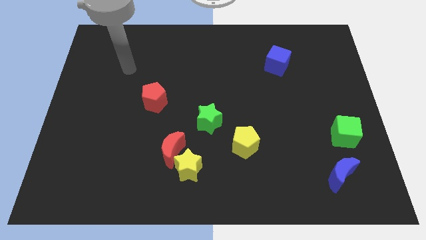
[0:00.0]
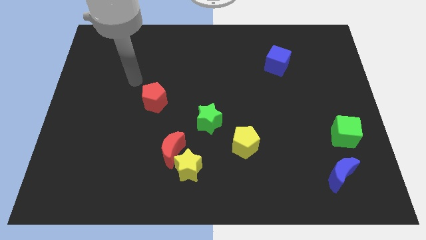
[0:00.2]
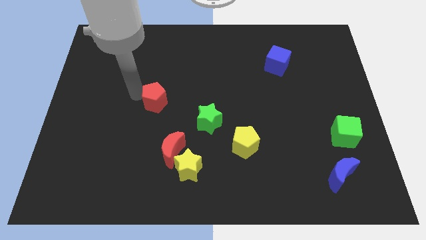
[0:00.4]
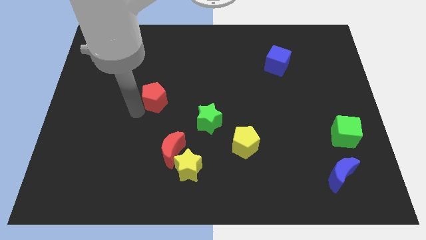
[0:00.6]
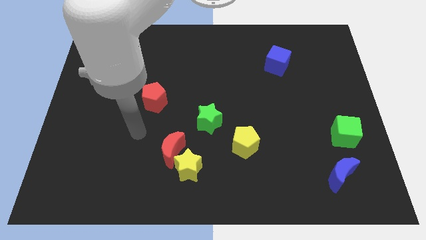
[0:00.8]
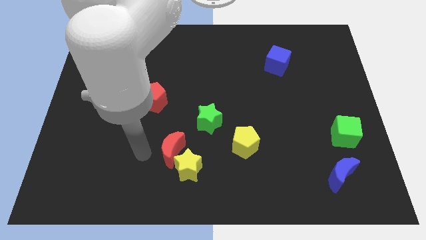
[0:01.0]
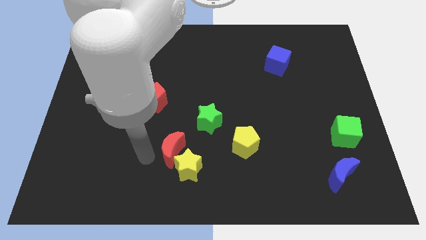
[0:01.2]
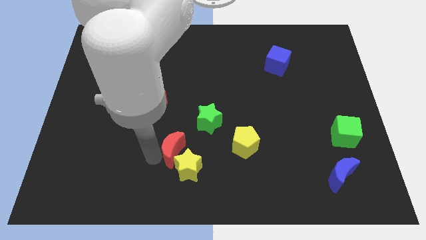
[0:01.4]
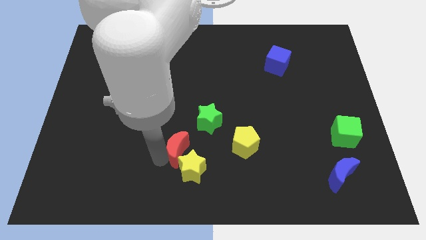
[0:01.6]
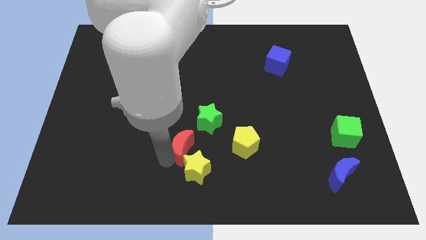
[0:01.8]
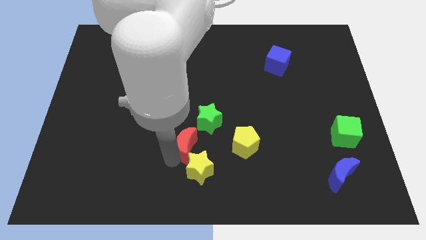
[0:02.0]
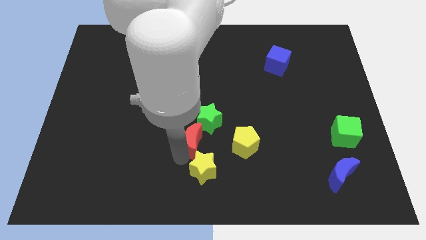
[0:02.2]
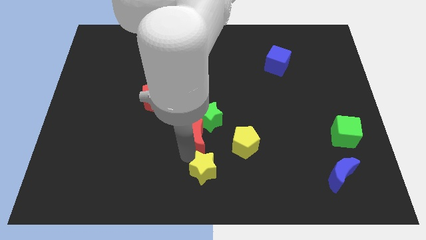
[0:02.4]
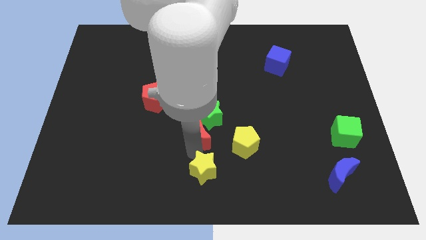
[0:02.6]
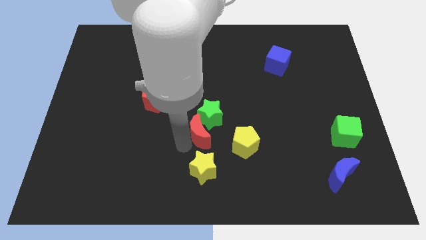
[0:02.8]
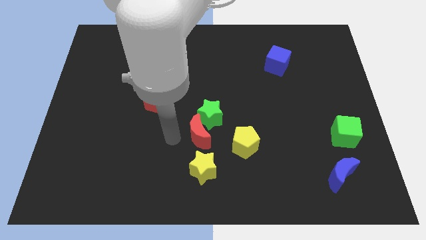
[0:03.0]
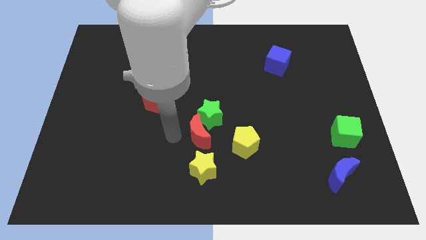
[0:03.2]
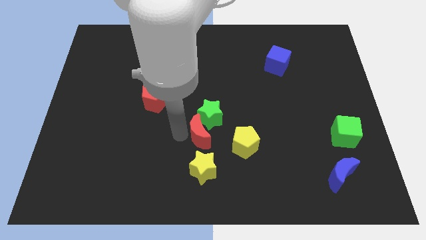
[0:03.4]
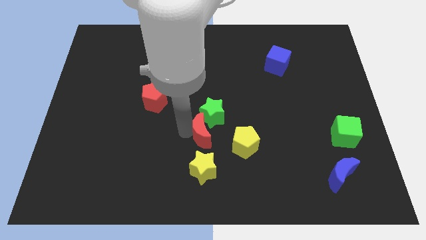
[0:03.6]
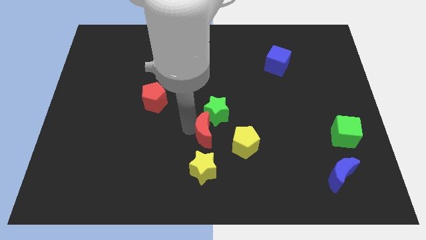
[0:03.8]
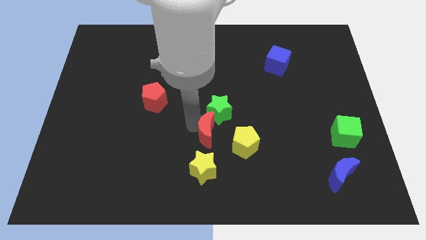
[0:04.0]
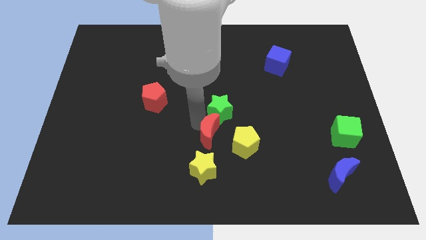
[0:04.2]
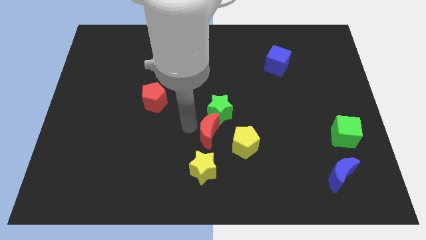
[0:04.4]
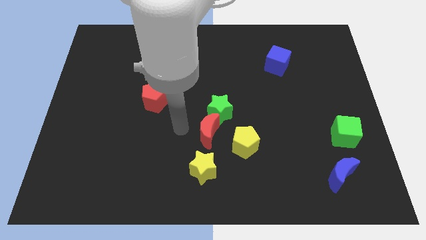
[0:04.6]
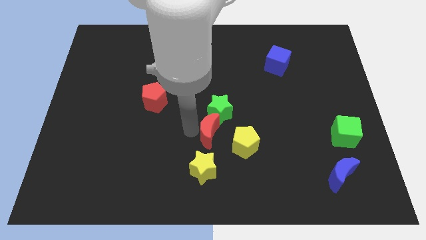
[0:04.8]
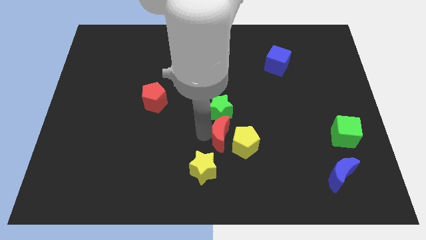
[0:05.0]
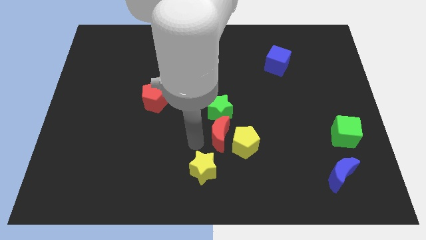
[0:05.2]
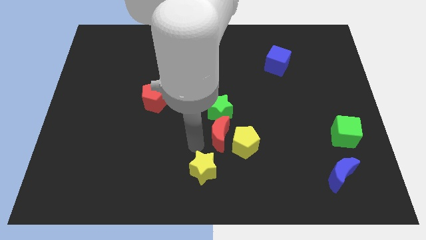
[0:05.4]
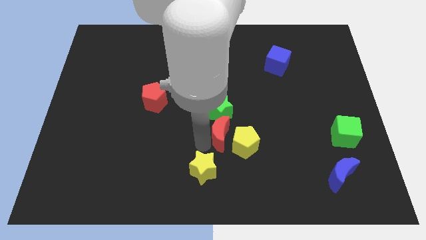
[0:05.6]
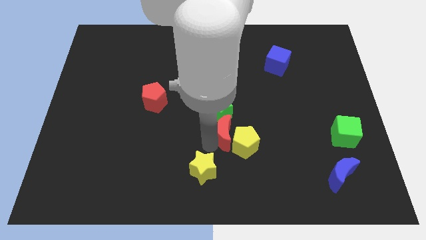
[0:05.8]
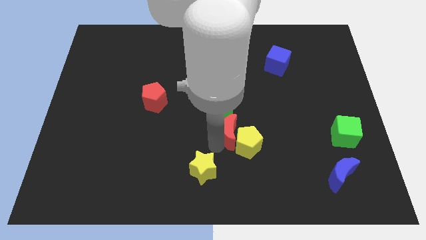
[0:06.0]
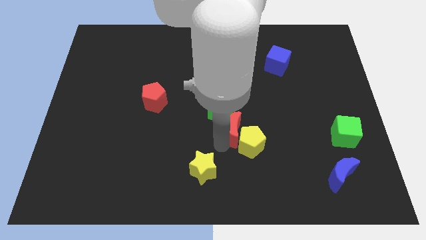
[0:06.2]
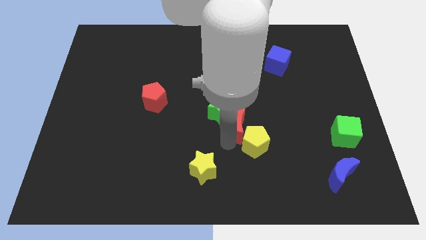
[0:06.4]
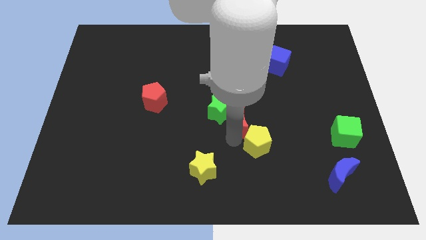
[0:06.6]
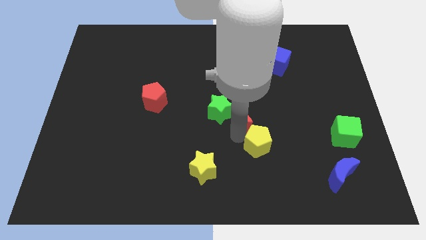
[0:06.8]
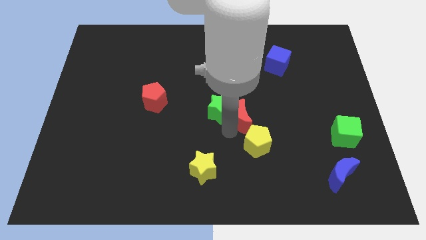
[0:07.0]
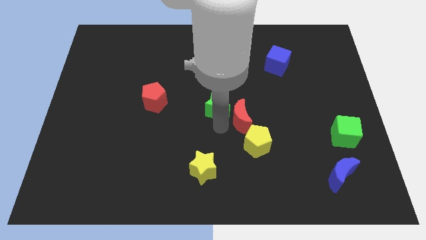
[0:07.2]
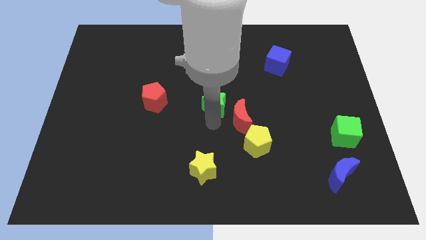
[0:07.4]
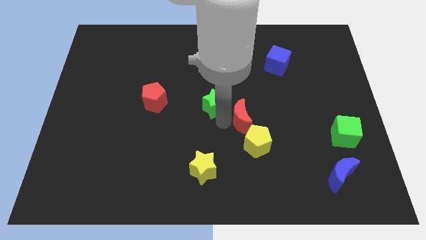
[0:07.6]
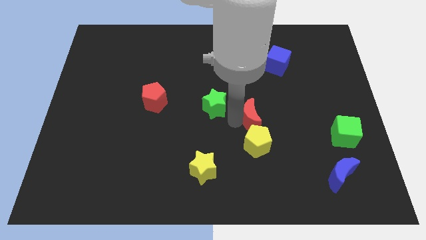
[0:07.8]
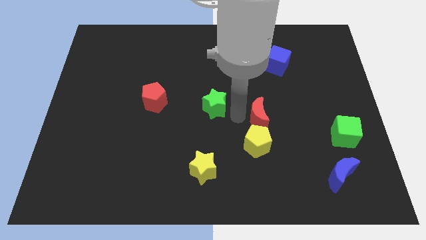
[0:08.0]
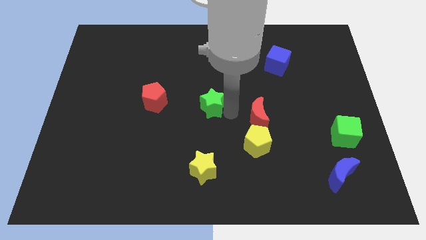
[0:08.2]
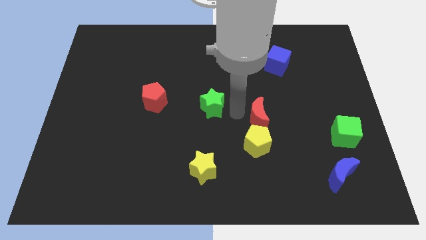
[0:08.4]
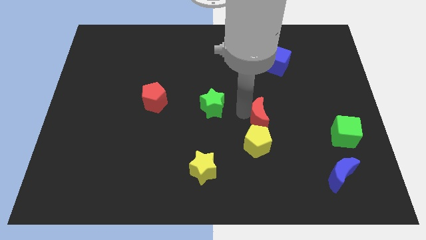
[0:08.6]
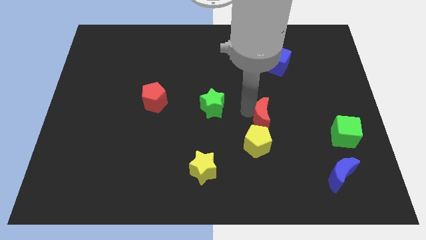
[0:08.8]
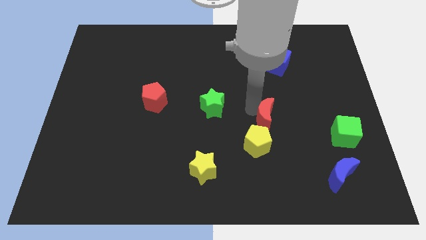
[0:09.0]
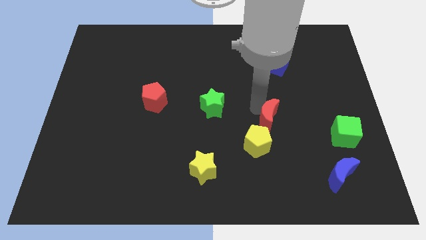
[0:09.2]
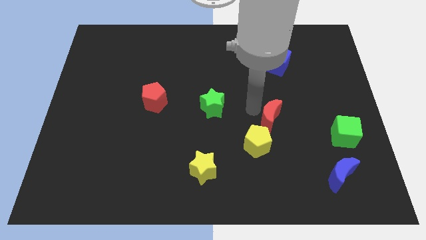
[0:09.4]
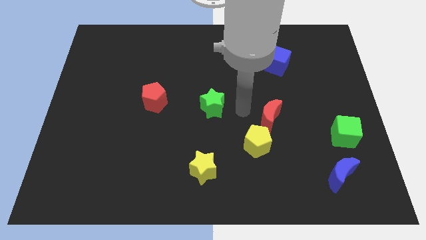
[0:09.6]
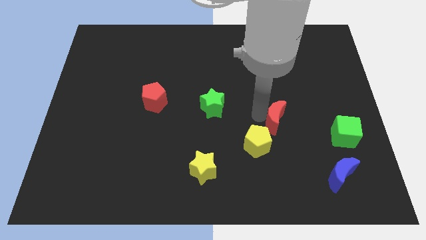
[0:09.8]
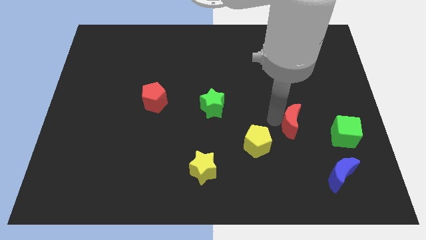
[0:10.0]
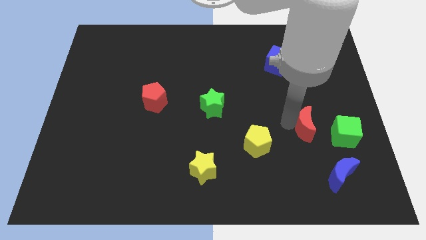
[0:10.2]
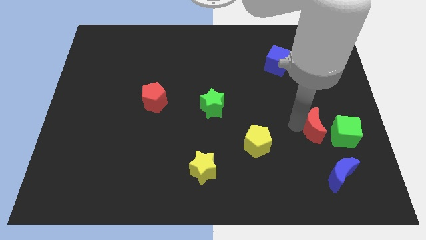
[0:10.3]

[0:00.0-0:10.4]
put the red moon to the top side of the blue moon

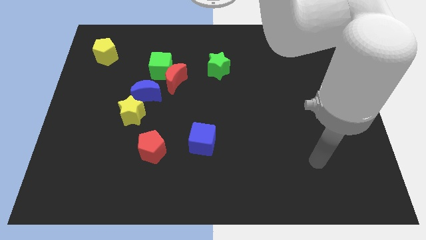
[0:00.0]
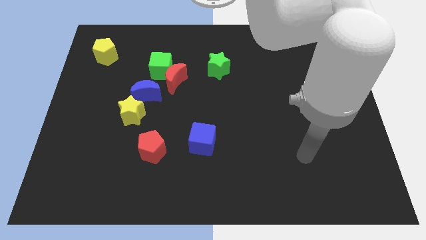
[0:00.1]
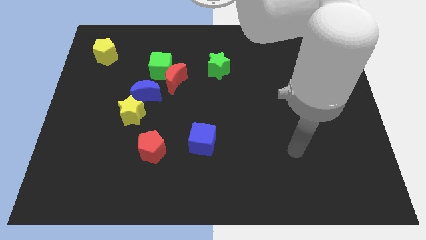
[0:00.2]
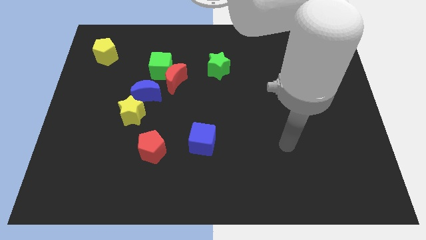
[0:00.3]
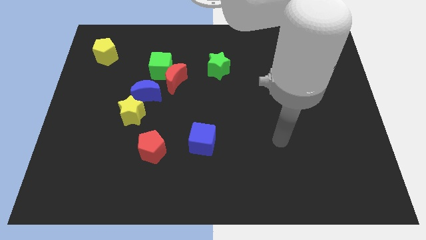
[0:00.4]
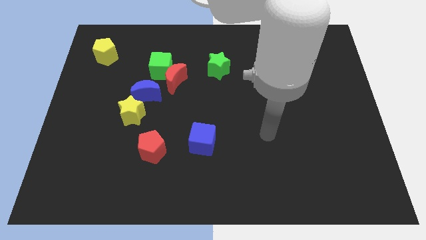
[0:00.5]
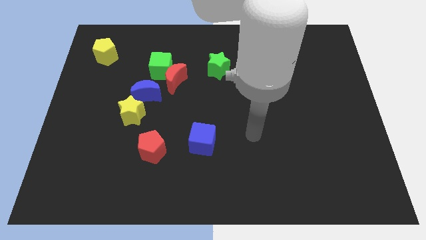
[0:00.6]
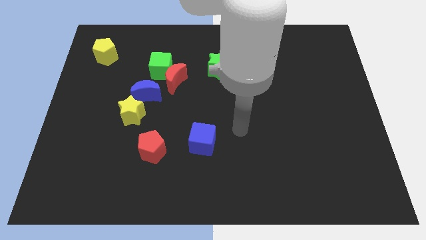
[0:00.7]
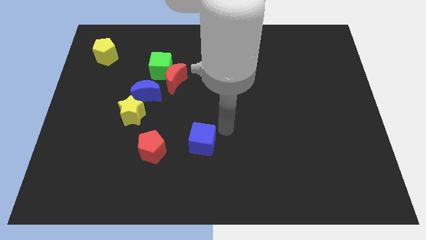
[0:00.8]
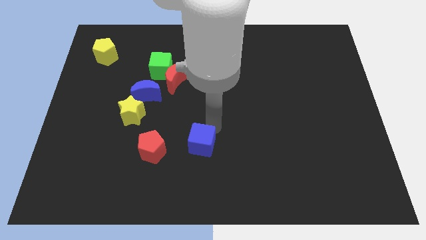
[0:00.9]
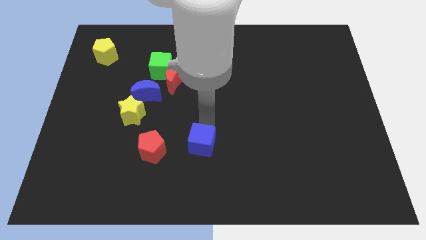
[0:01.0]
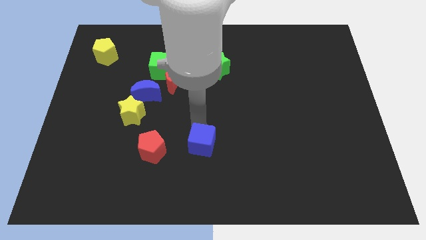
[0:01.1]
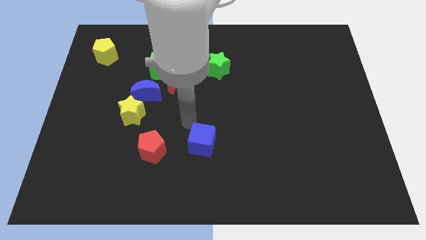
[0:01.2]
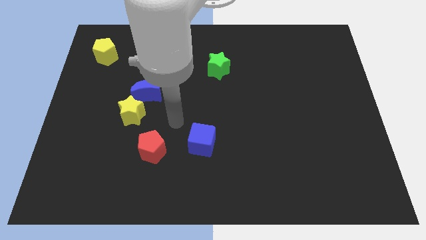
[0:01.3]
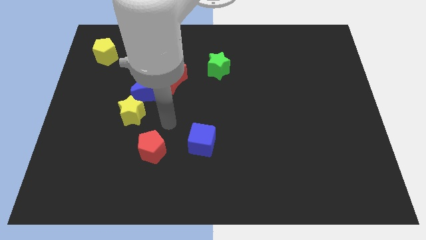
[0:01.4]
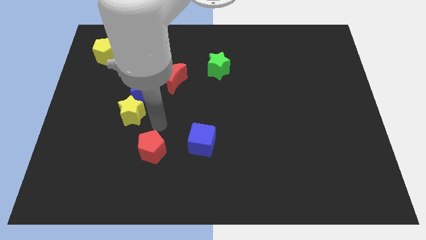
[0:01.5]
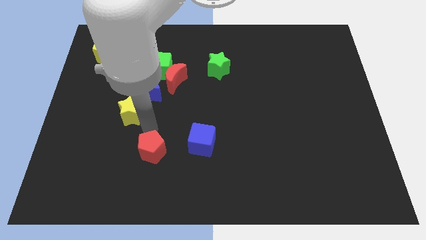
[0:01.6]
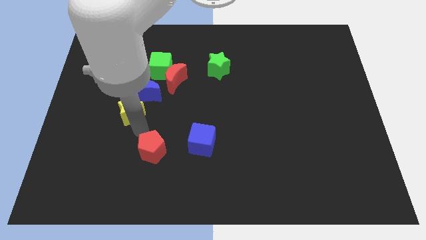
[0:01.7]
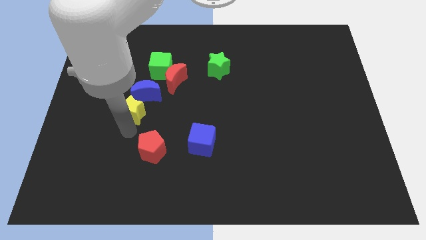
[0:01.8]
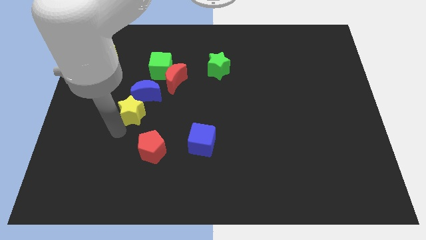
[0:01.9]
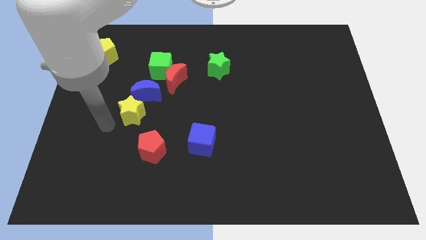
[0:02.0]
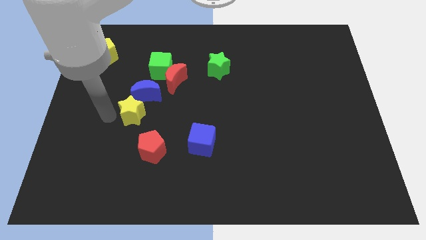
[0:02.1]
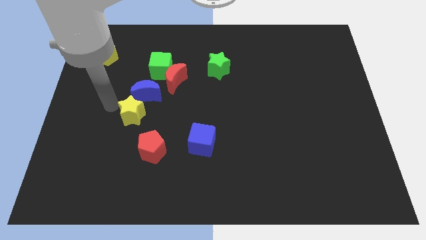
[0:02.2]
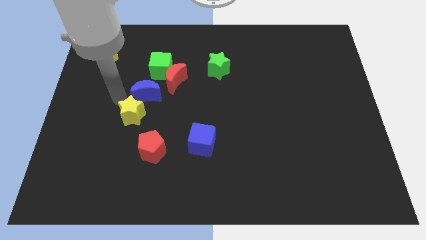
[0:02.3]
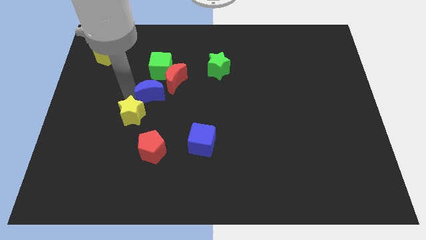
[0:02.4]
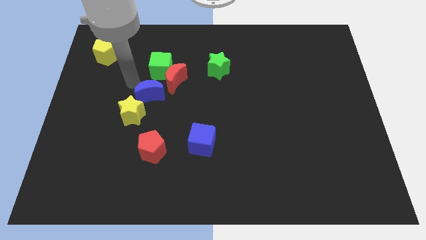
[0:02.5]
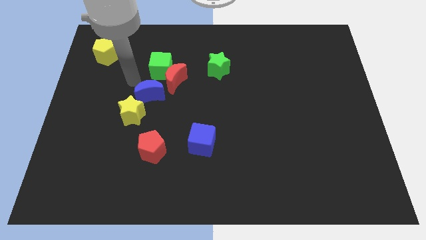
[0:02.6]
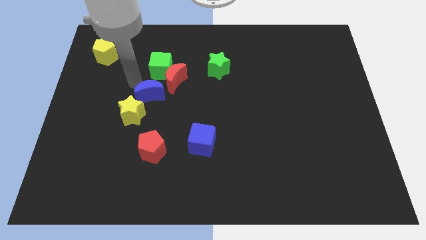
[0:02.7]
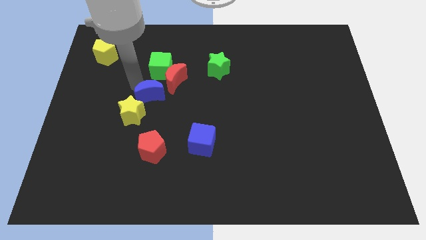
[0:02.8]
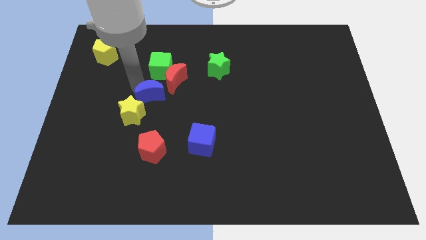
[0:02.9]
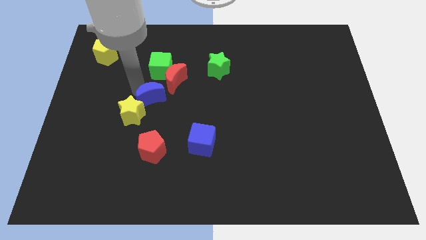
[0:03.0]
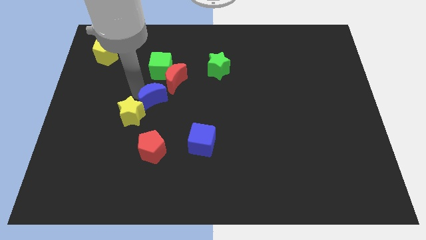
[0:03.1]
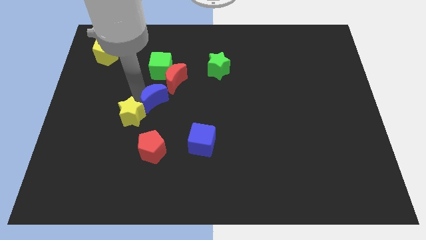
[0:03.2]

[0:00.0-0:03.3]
move the blue moon to the right of the yellow star
